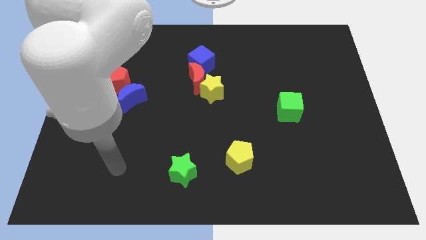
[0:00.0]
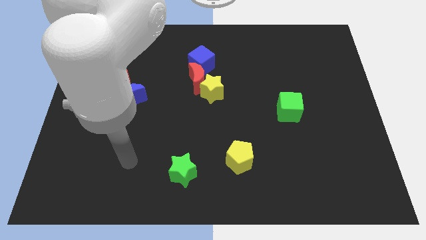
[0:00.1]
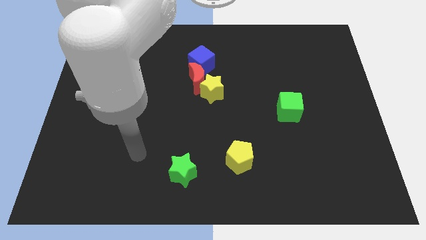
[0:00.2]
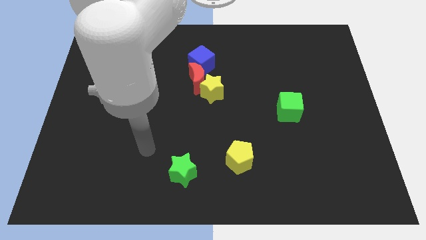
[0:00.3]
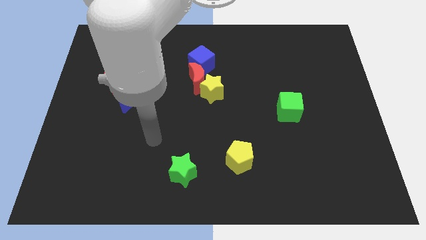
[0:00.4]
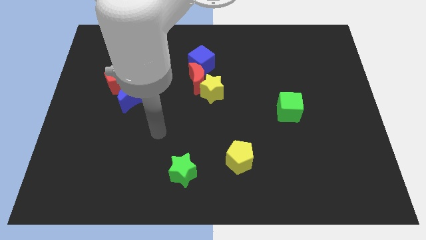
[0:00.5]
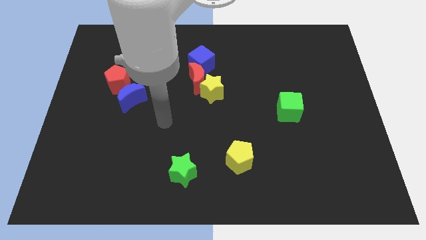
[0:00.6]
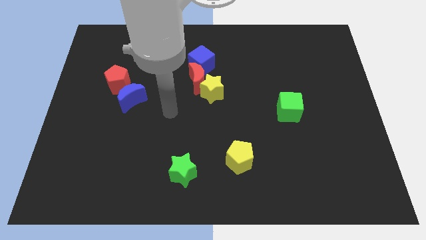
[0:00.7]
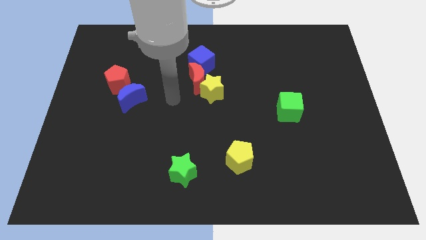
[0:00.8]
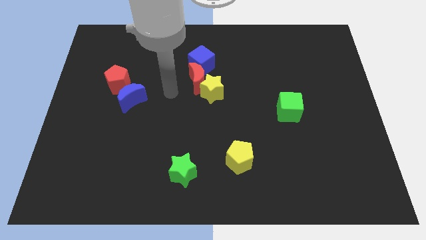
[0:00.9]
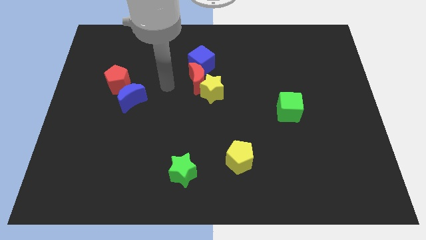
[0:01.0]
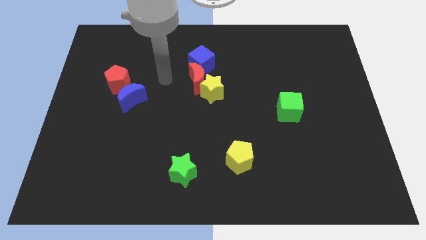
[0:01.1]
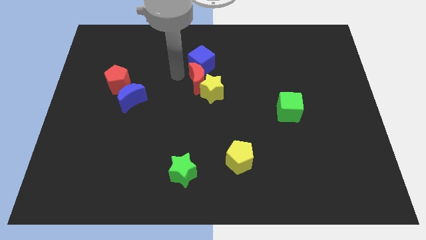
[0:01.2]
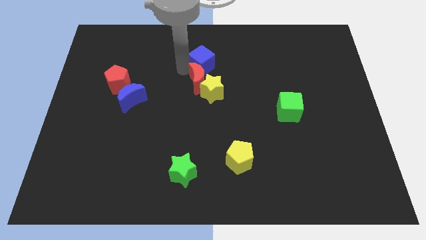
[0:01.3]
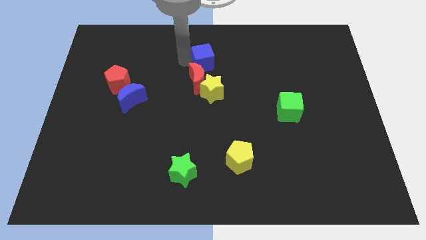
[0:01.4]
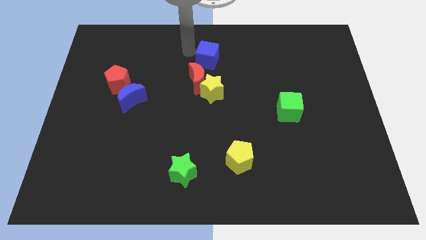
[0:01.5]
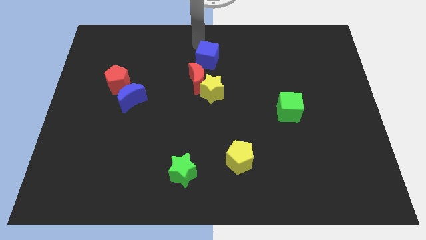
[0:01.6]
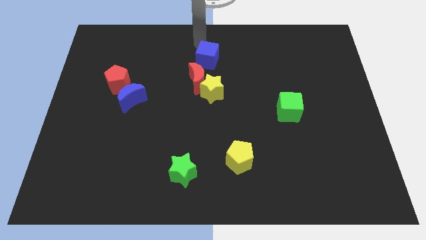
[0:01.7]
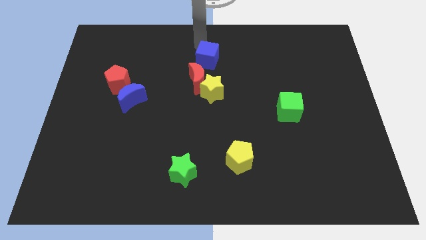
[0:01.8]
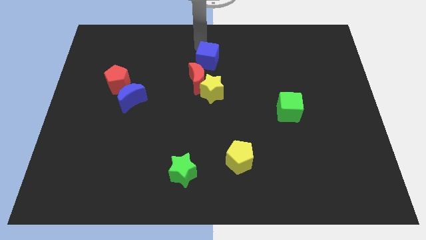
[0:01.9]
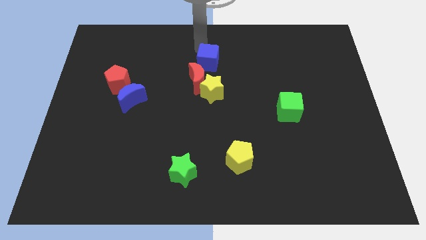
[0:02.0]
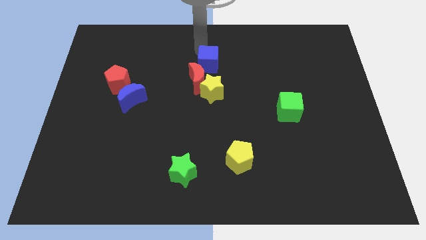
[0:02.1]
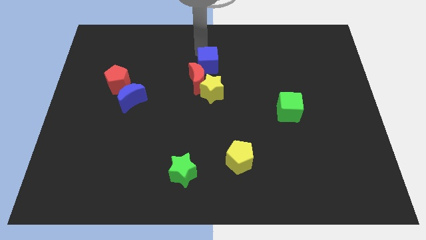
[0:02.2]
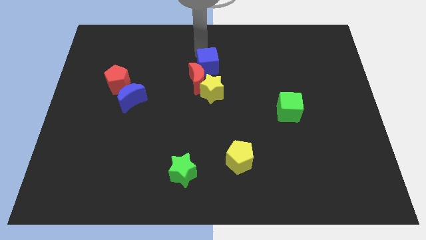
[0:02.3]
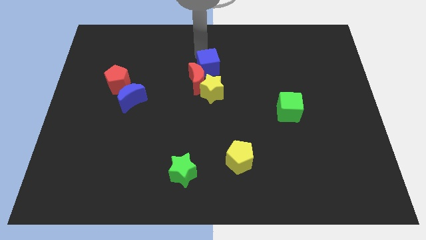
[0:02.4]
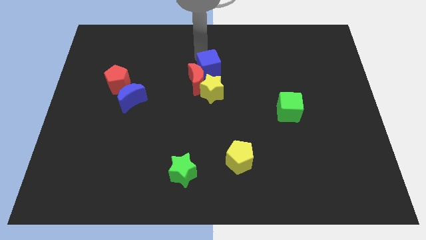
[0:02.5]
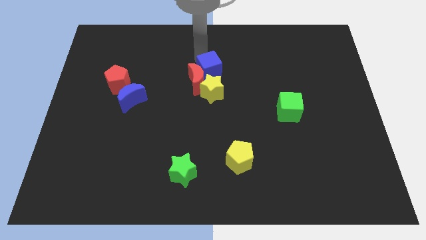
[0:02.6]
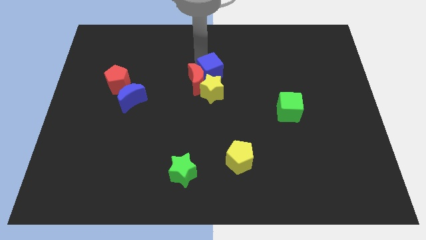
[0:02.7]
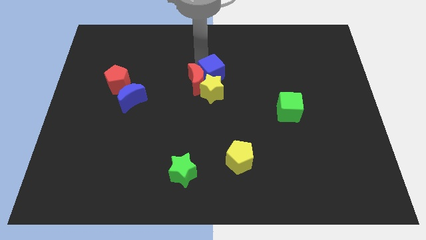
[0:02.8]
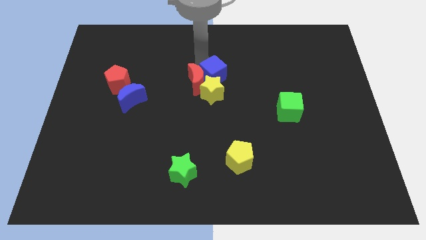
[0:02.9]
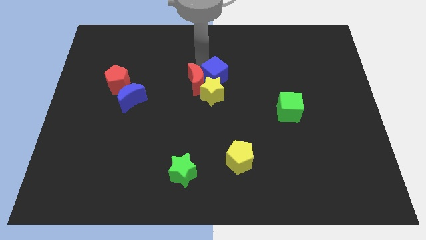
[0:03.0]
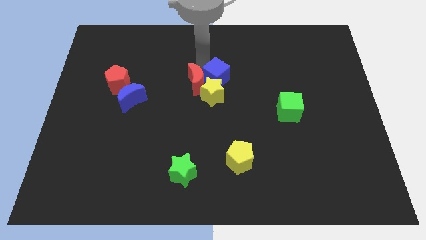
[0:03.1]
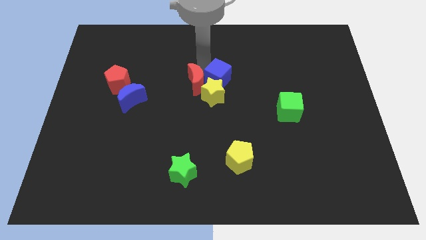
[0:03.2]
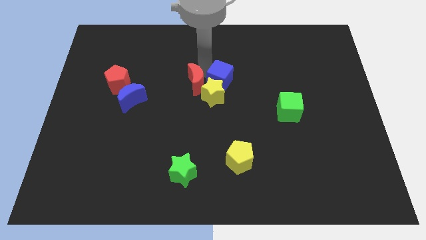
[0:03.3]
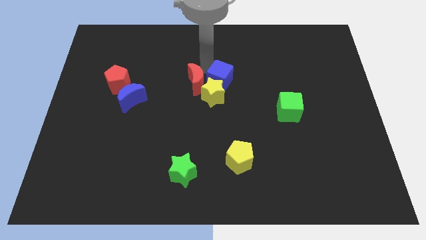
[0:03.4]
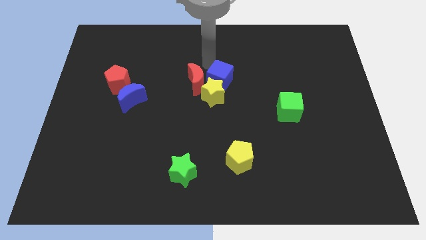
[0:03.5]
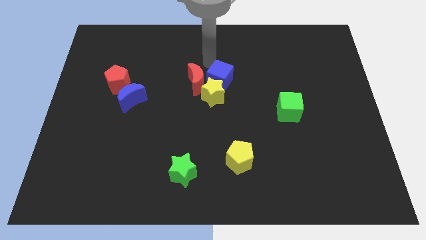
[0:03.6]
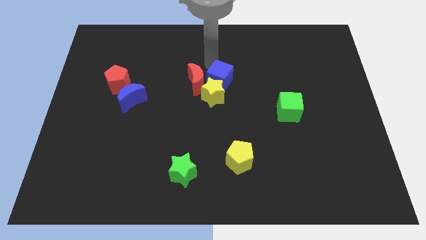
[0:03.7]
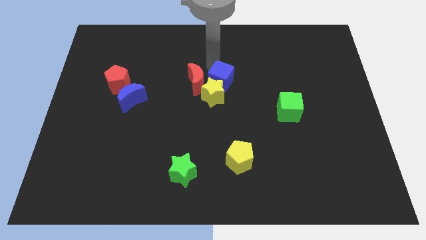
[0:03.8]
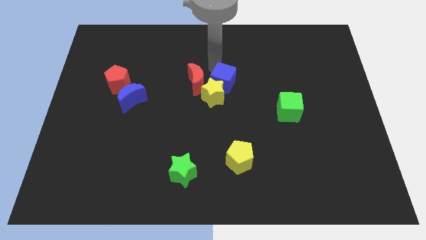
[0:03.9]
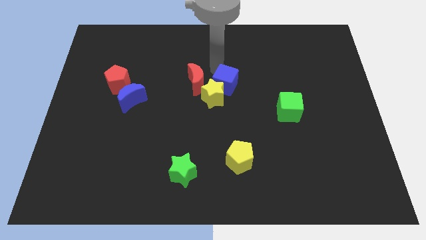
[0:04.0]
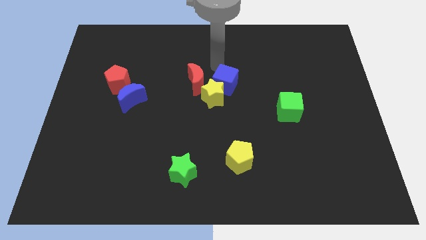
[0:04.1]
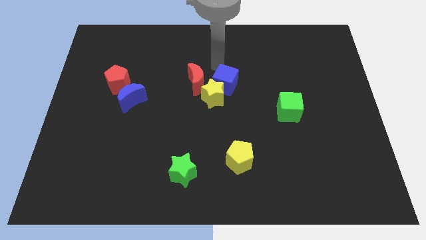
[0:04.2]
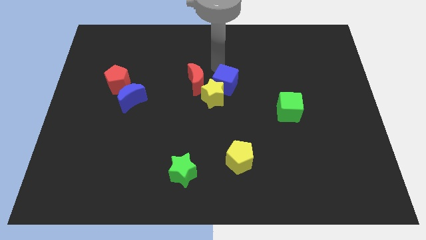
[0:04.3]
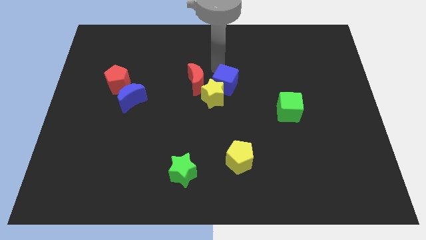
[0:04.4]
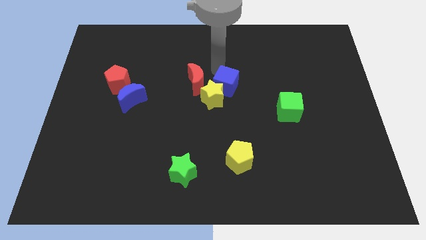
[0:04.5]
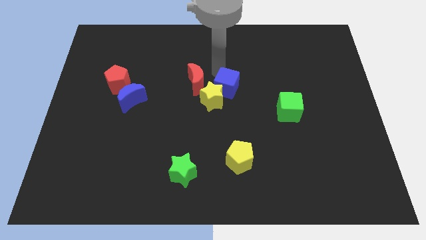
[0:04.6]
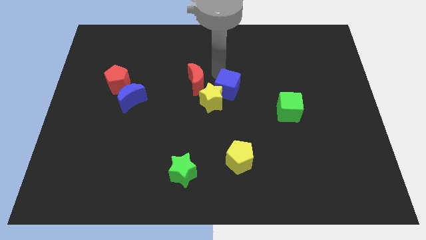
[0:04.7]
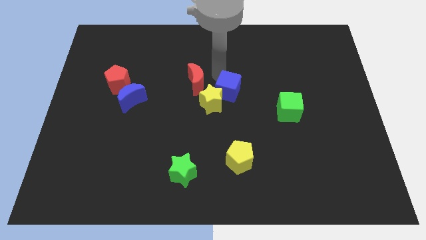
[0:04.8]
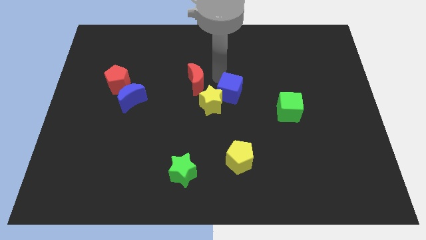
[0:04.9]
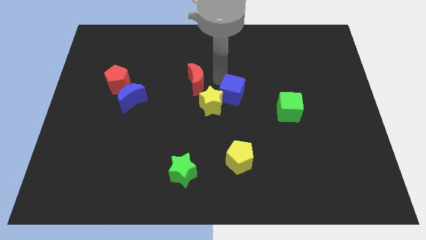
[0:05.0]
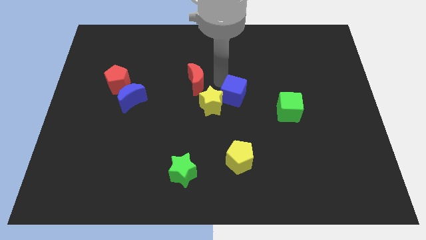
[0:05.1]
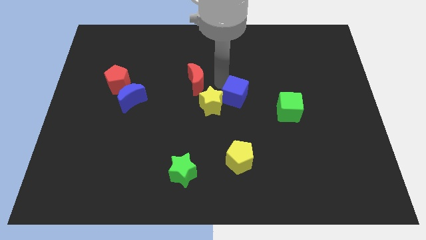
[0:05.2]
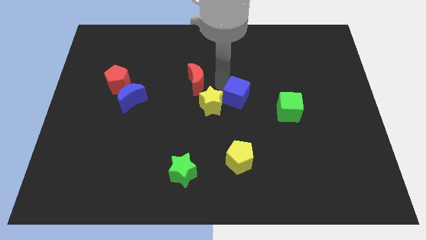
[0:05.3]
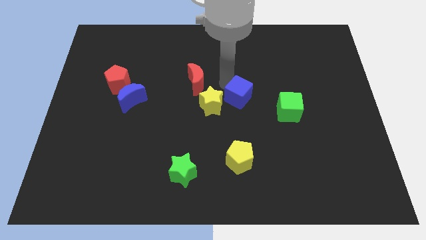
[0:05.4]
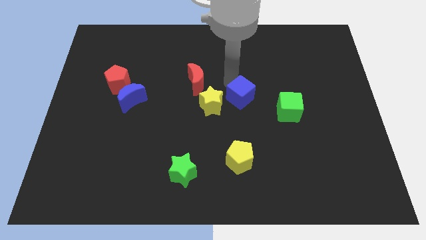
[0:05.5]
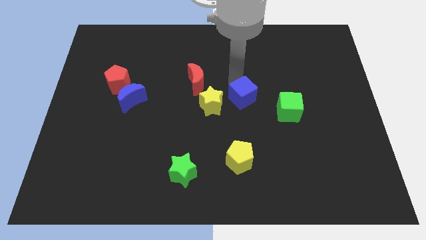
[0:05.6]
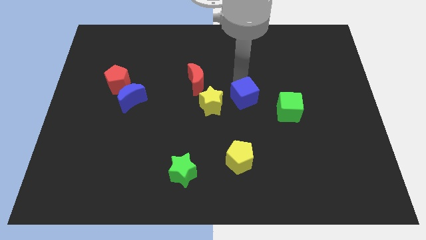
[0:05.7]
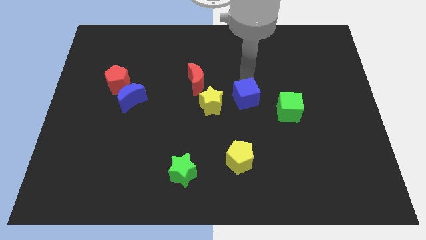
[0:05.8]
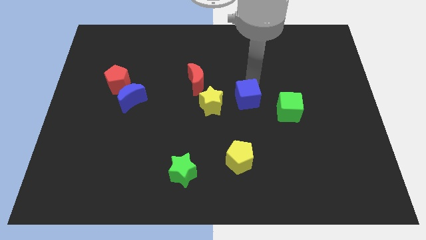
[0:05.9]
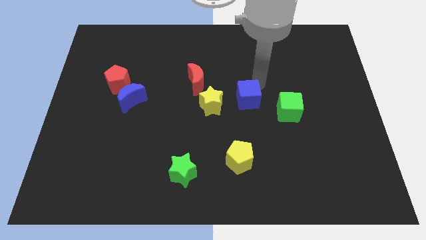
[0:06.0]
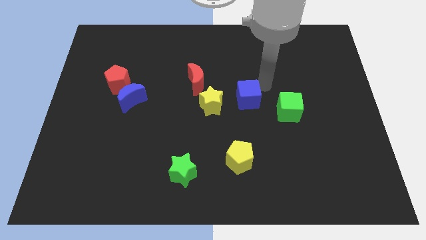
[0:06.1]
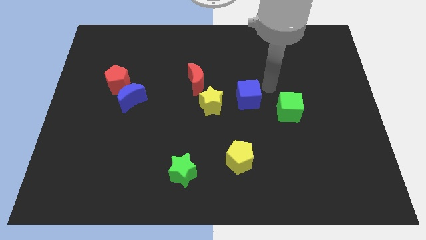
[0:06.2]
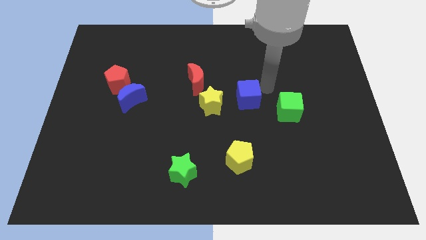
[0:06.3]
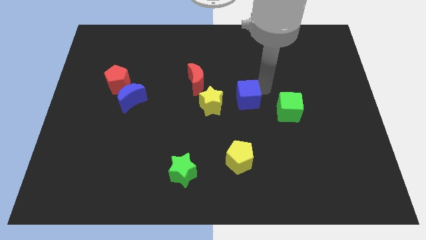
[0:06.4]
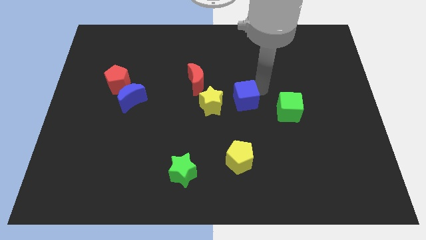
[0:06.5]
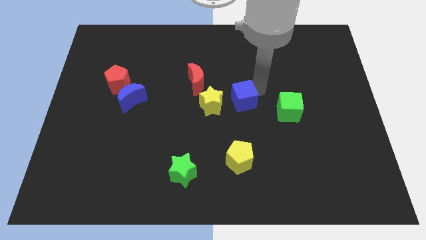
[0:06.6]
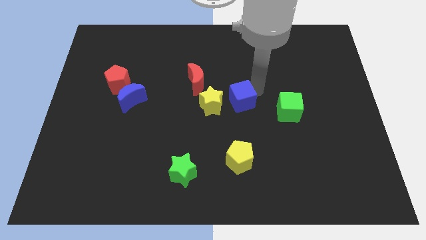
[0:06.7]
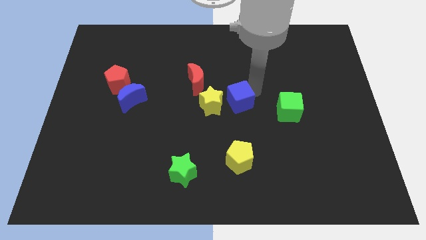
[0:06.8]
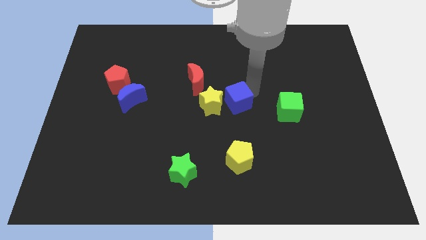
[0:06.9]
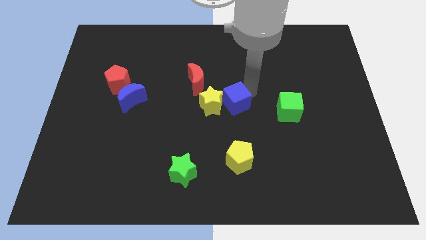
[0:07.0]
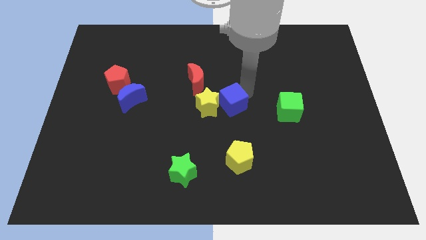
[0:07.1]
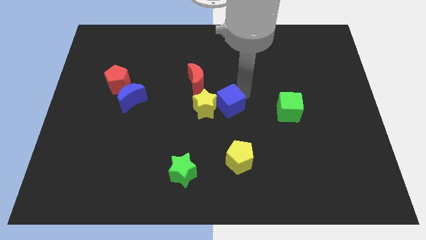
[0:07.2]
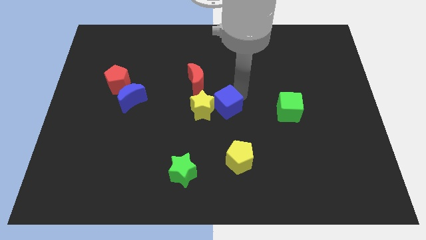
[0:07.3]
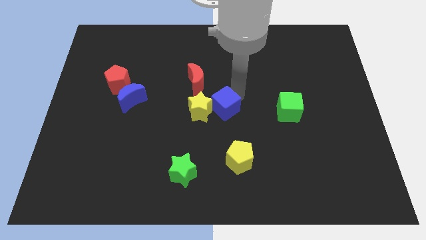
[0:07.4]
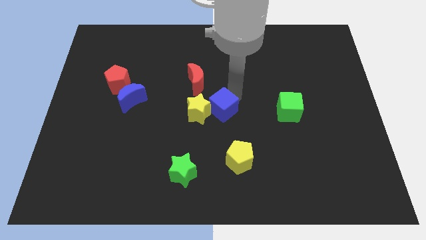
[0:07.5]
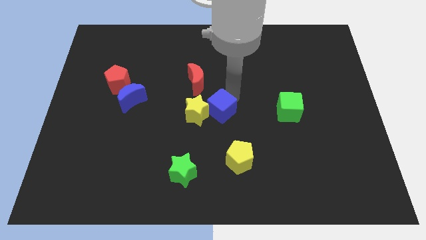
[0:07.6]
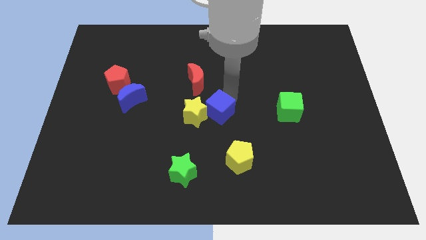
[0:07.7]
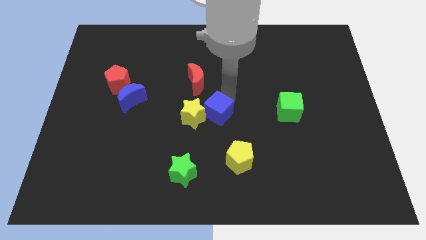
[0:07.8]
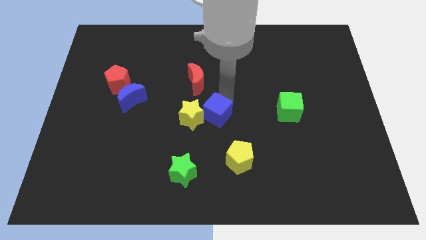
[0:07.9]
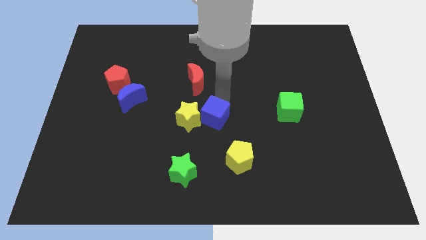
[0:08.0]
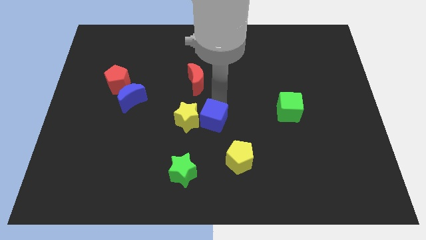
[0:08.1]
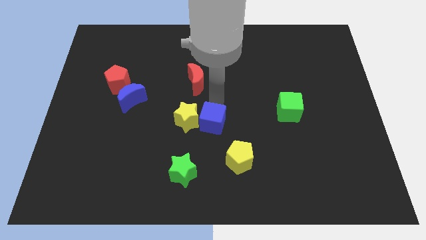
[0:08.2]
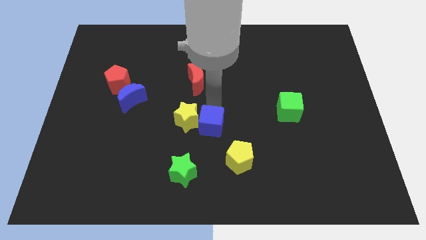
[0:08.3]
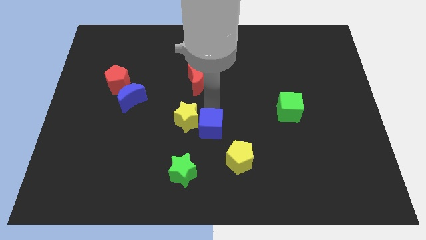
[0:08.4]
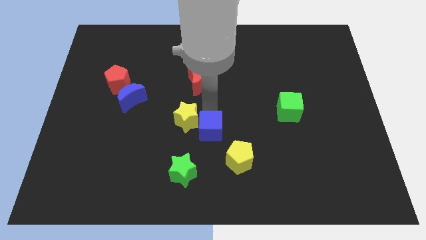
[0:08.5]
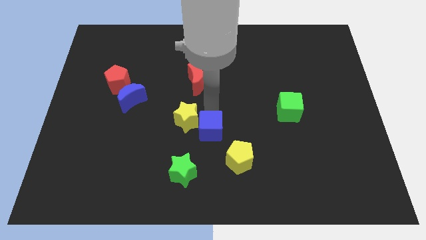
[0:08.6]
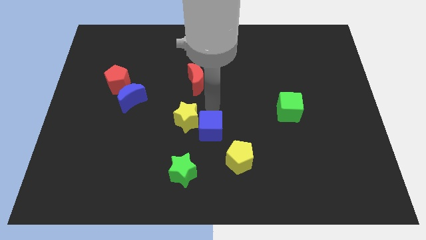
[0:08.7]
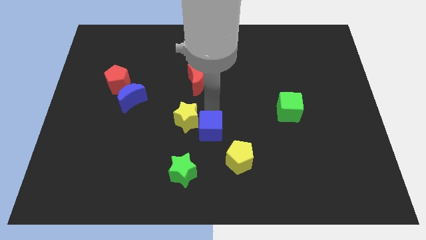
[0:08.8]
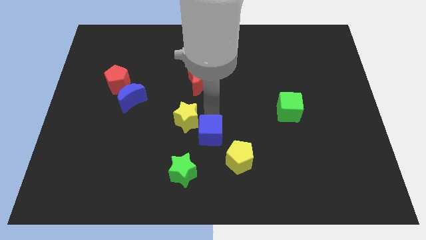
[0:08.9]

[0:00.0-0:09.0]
slide the blue cube diagonally up and to the right of the green star
